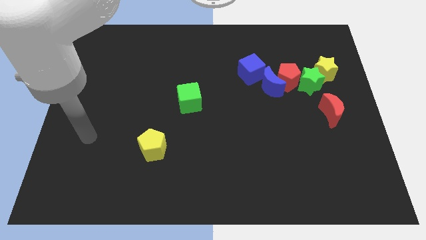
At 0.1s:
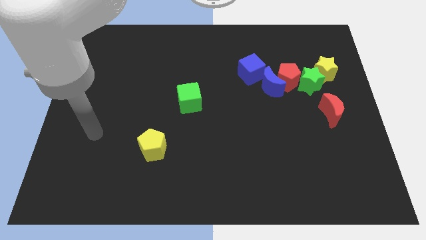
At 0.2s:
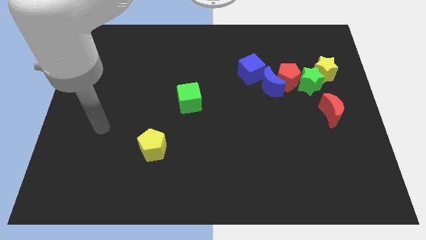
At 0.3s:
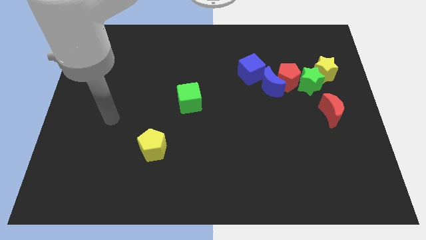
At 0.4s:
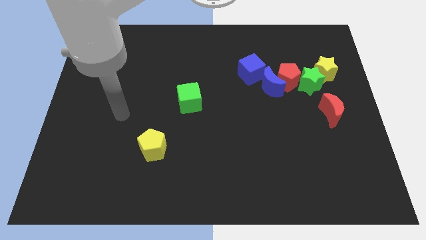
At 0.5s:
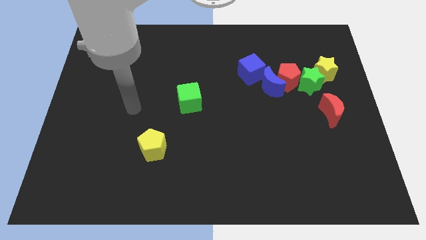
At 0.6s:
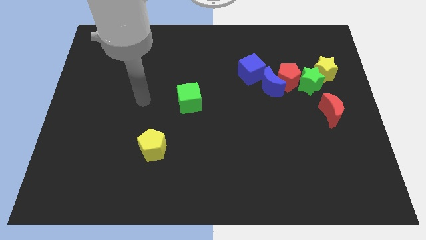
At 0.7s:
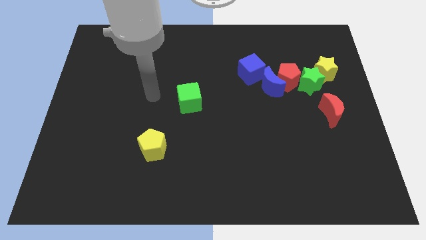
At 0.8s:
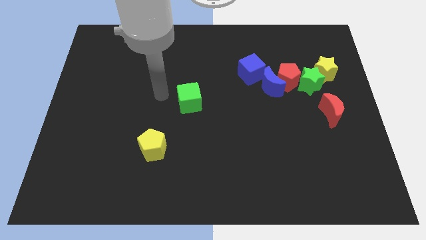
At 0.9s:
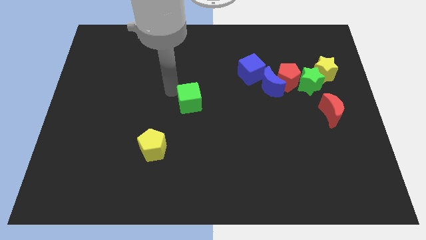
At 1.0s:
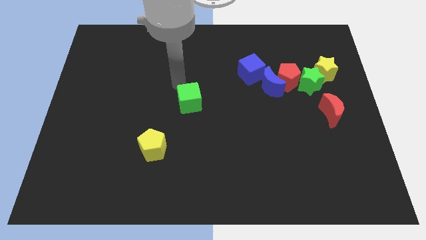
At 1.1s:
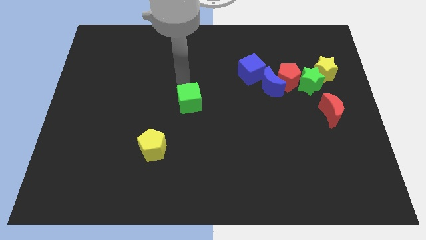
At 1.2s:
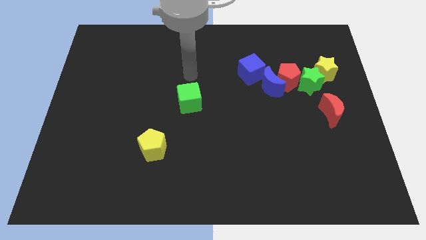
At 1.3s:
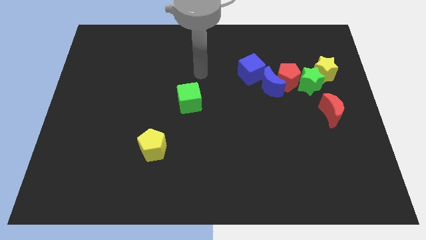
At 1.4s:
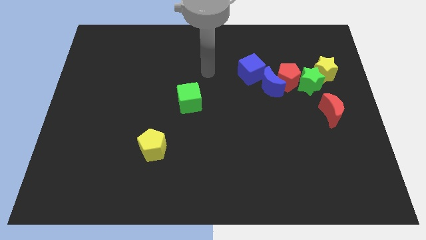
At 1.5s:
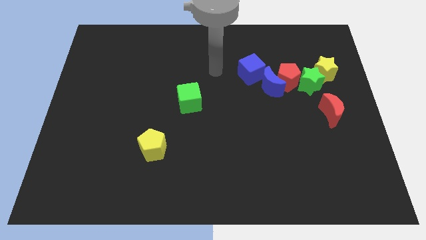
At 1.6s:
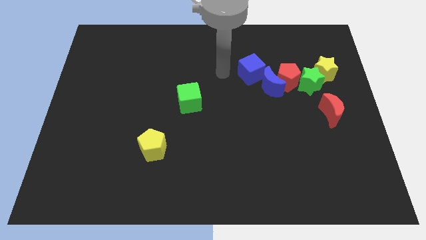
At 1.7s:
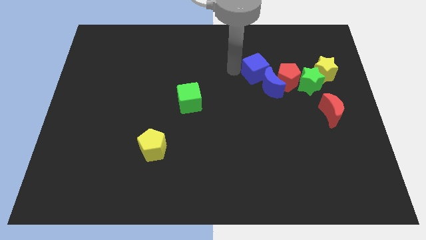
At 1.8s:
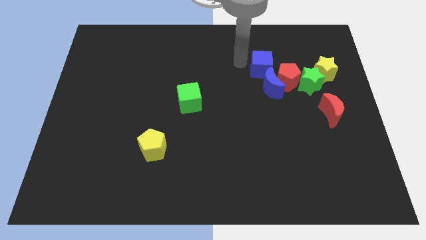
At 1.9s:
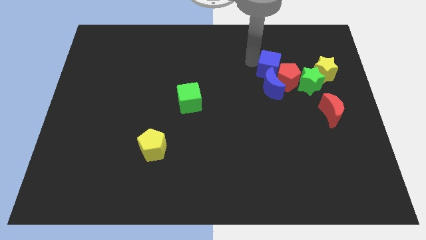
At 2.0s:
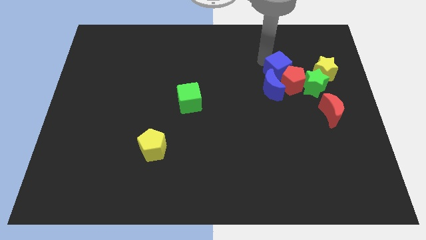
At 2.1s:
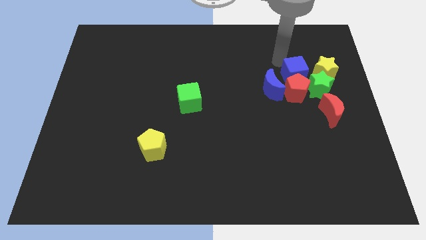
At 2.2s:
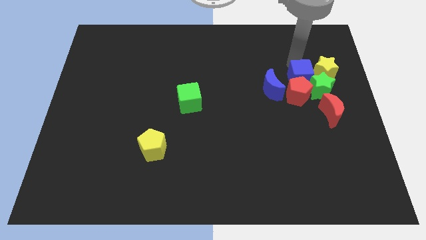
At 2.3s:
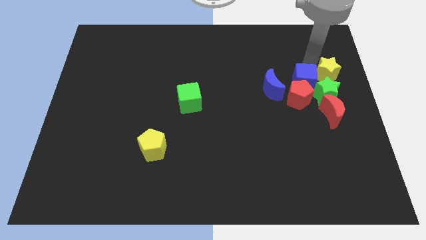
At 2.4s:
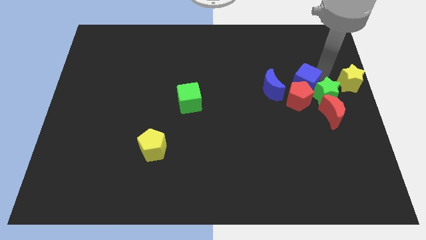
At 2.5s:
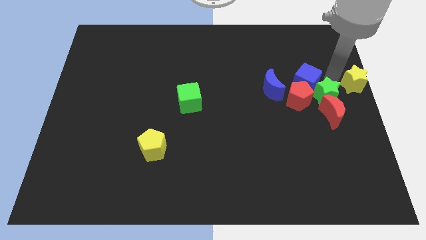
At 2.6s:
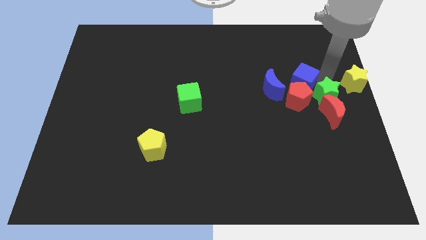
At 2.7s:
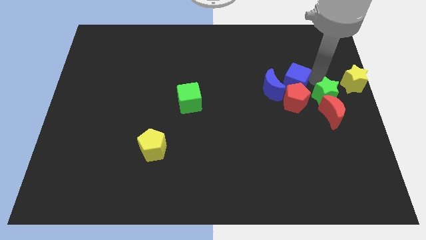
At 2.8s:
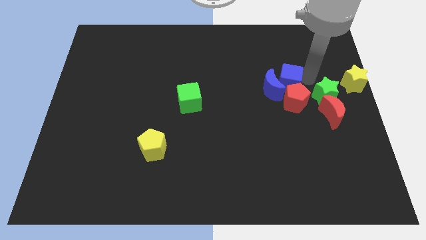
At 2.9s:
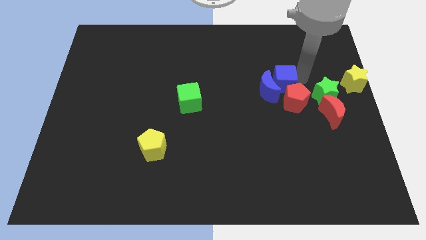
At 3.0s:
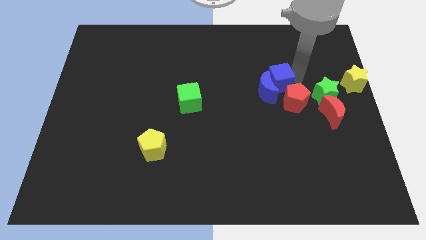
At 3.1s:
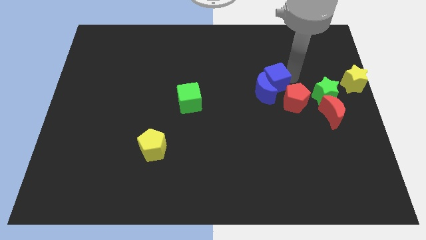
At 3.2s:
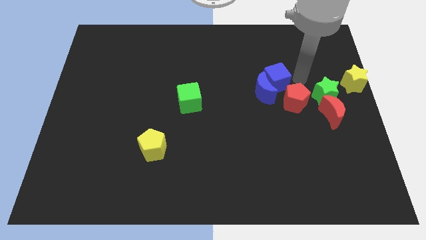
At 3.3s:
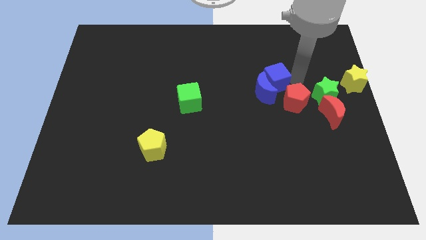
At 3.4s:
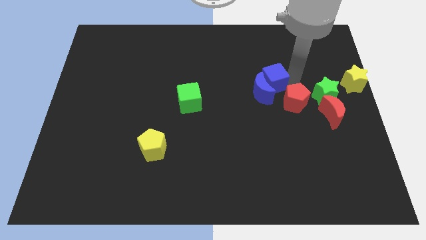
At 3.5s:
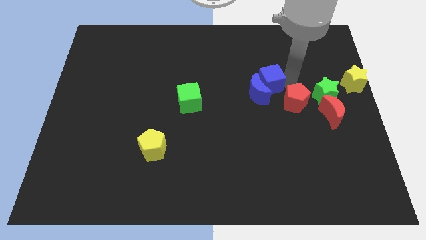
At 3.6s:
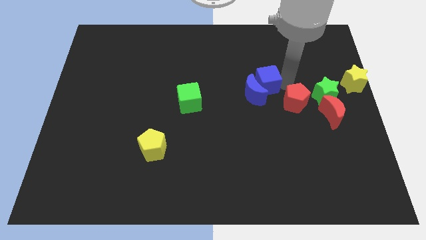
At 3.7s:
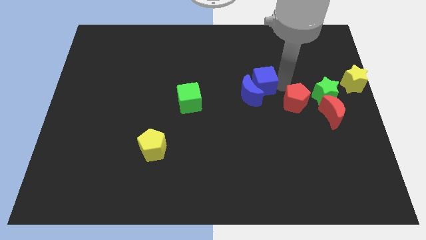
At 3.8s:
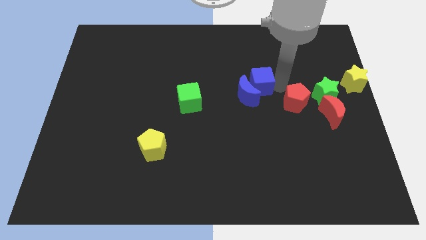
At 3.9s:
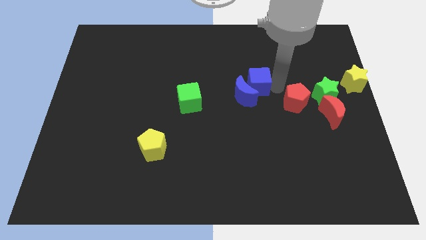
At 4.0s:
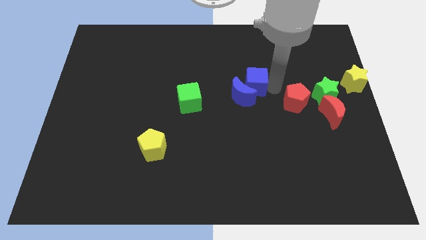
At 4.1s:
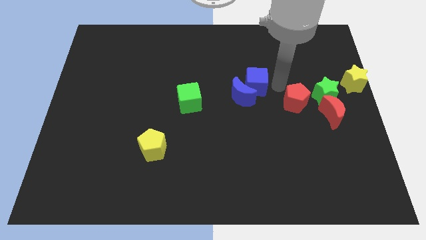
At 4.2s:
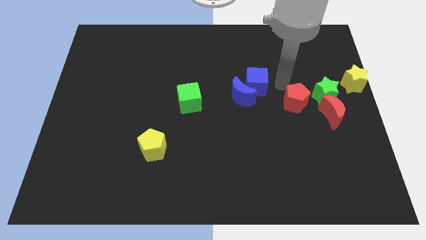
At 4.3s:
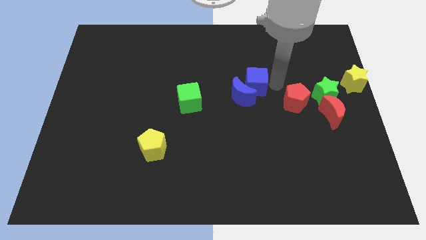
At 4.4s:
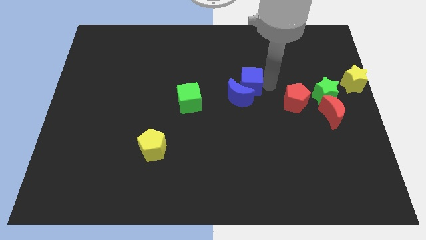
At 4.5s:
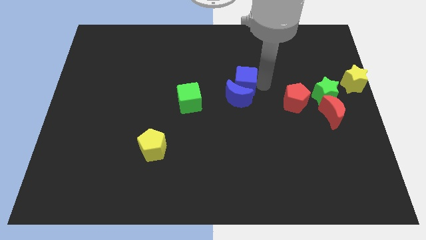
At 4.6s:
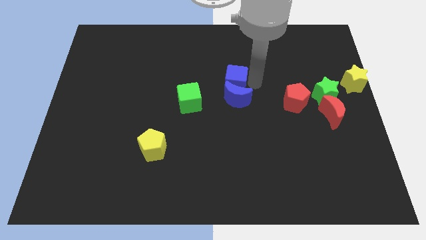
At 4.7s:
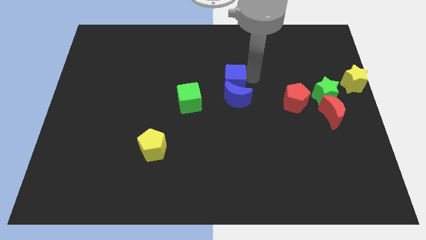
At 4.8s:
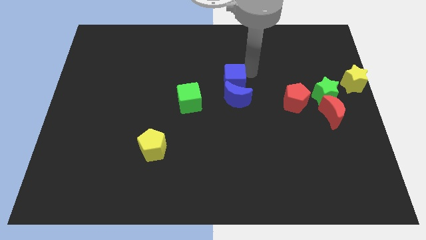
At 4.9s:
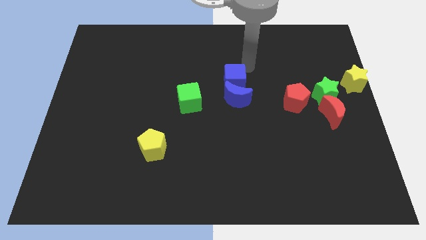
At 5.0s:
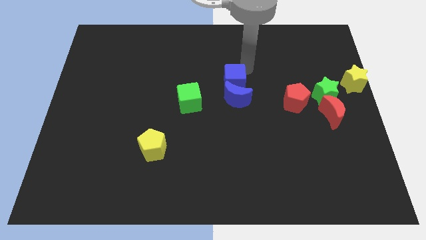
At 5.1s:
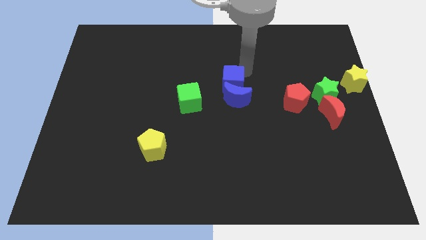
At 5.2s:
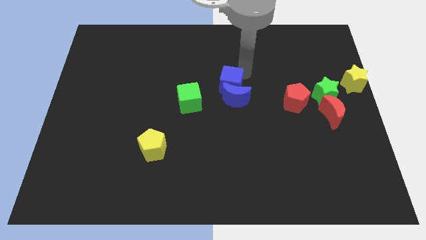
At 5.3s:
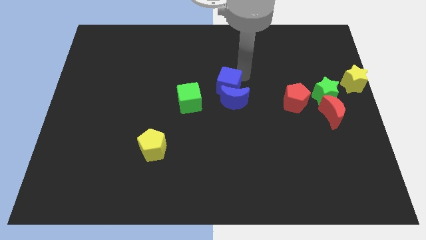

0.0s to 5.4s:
move the blue cube a little bit diagonally downwards and to the left

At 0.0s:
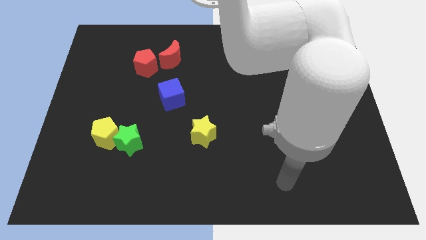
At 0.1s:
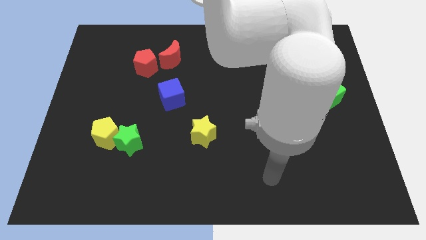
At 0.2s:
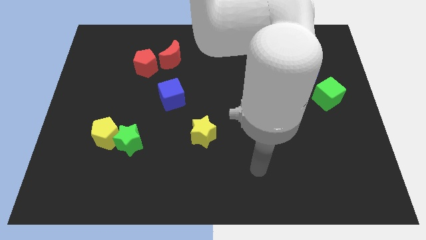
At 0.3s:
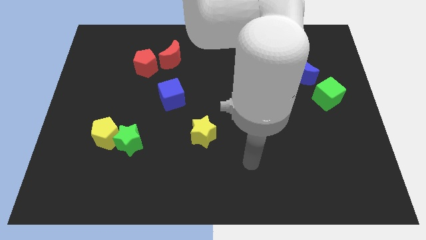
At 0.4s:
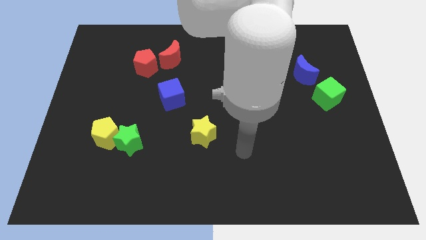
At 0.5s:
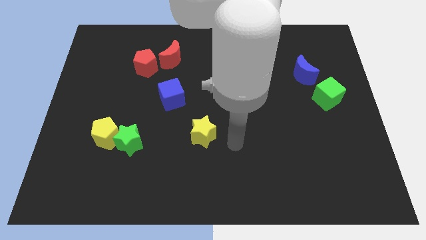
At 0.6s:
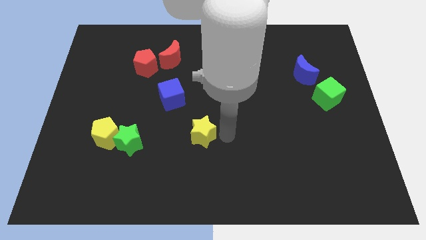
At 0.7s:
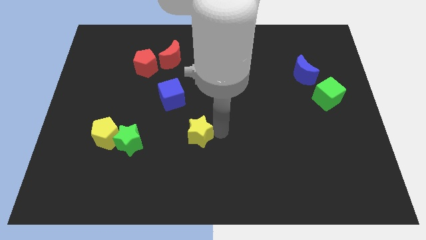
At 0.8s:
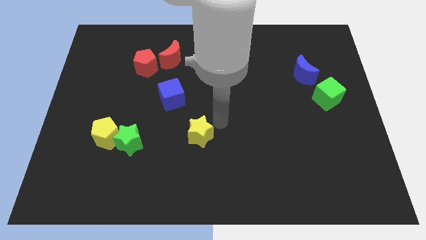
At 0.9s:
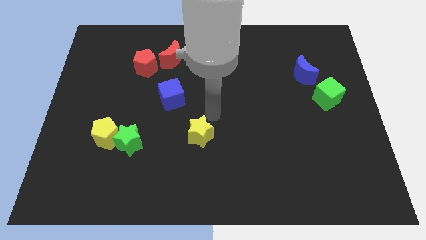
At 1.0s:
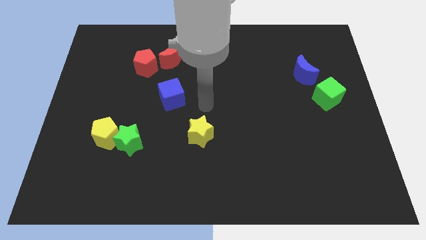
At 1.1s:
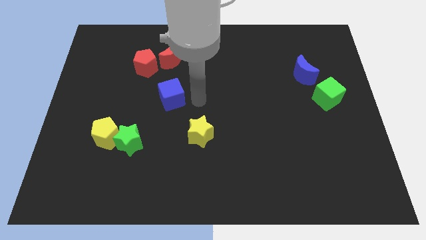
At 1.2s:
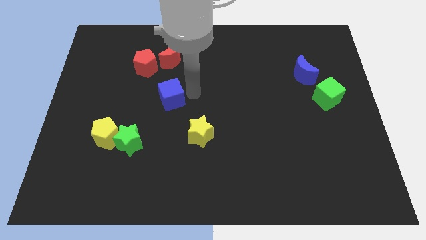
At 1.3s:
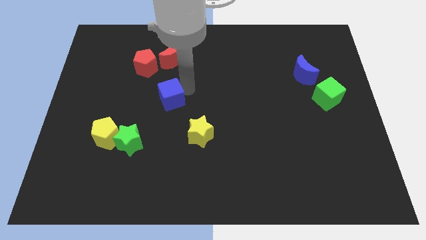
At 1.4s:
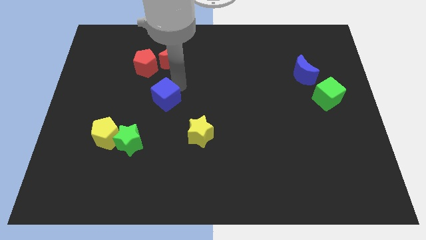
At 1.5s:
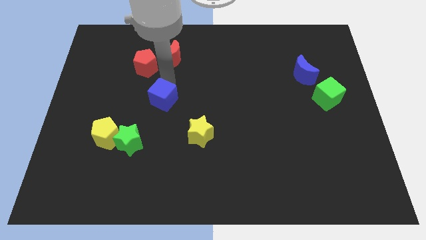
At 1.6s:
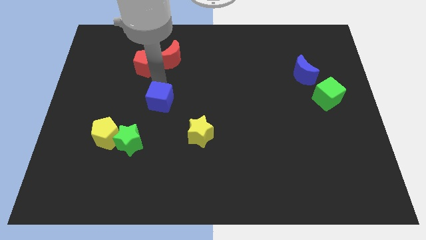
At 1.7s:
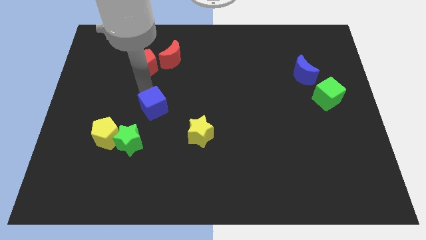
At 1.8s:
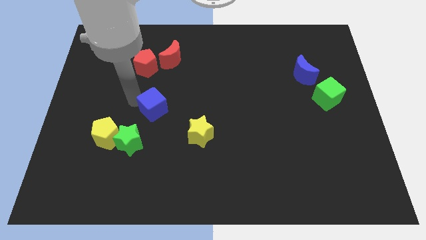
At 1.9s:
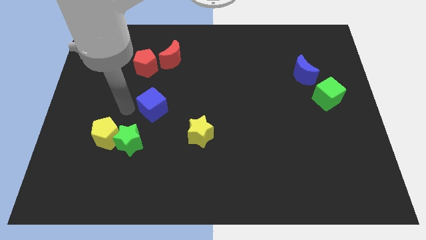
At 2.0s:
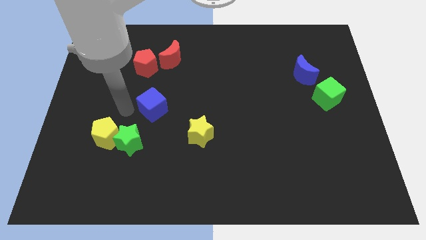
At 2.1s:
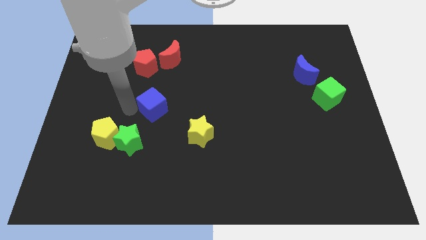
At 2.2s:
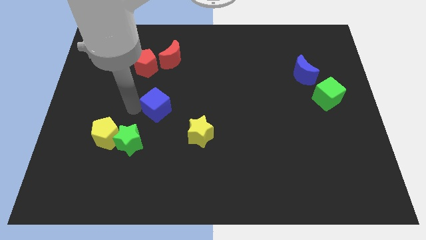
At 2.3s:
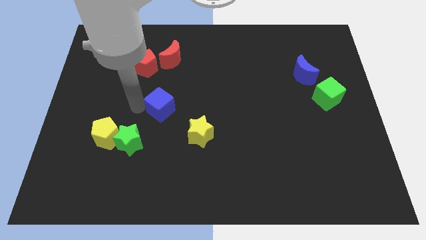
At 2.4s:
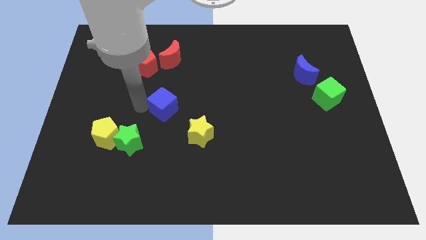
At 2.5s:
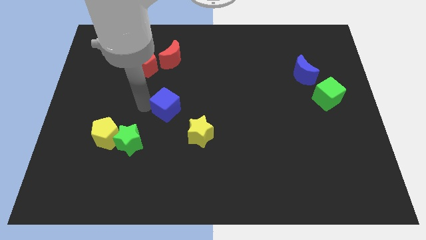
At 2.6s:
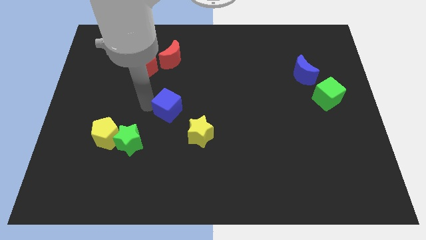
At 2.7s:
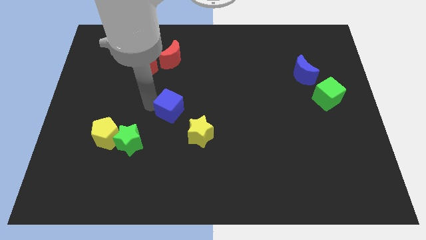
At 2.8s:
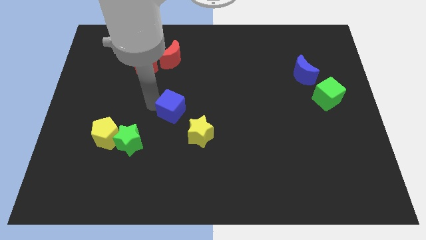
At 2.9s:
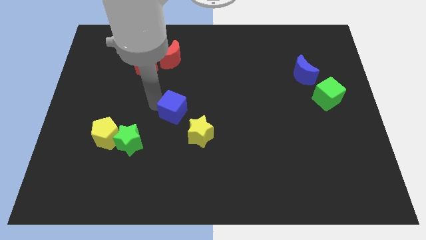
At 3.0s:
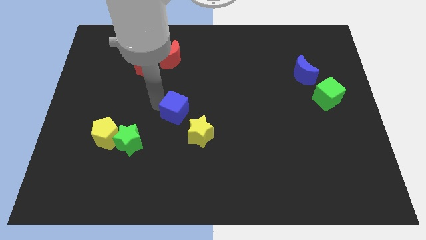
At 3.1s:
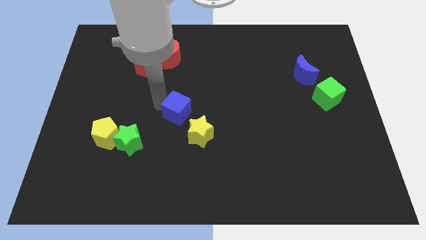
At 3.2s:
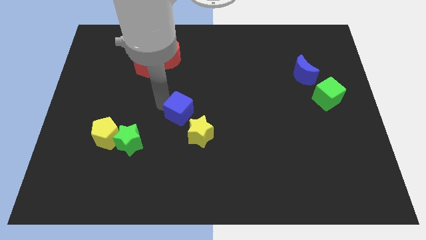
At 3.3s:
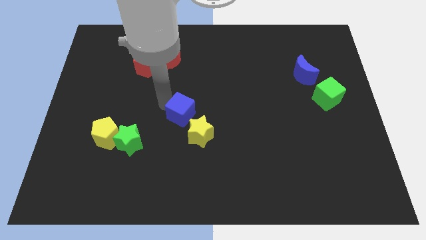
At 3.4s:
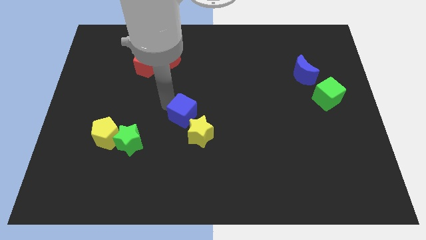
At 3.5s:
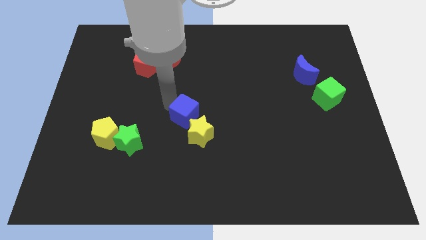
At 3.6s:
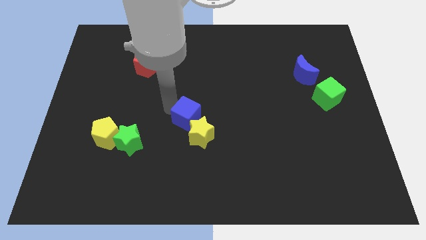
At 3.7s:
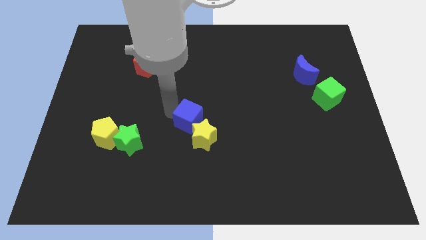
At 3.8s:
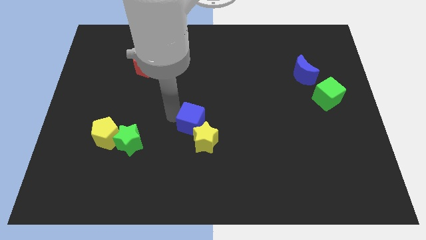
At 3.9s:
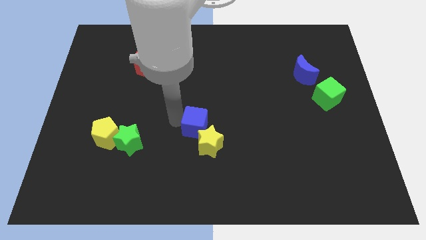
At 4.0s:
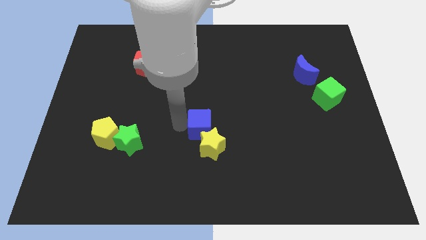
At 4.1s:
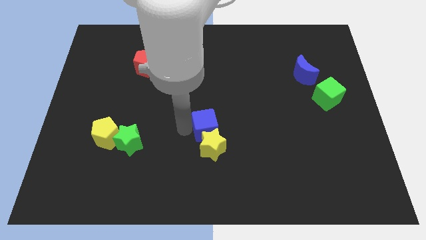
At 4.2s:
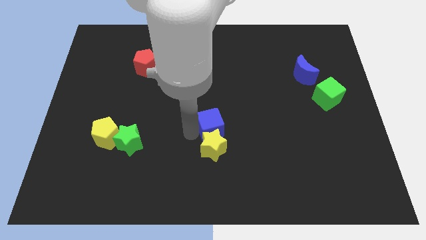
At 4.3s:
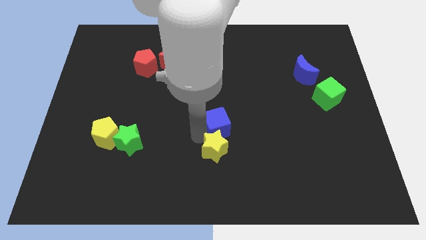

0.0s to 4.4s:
slightly move the blue cube to the right
